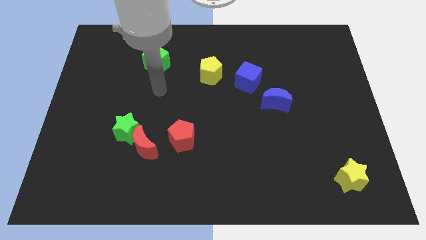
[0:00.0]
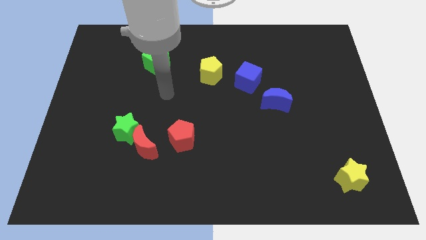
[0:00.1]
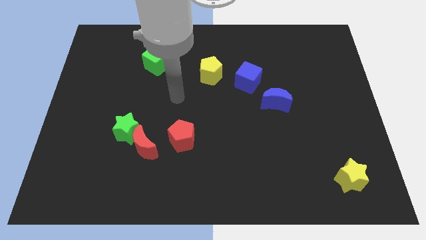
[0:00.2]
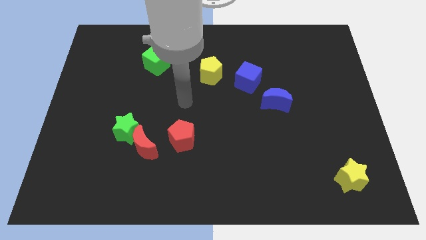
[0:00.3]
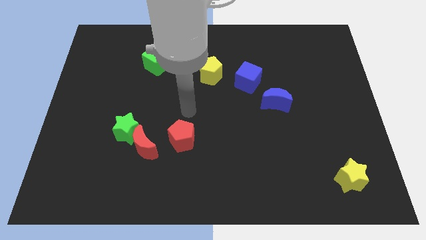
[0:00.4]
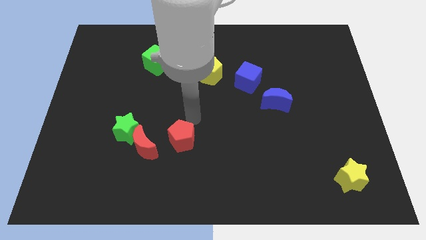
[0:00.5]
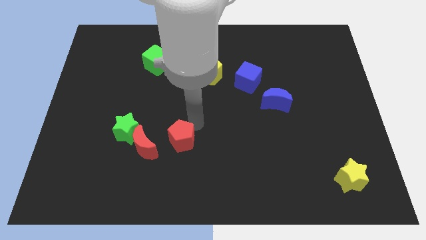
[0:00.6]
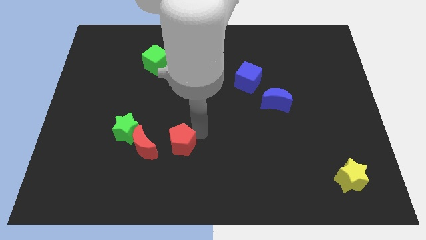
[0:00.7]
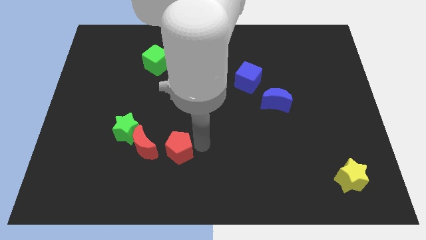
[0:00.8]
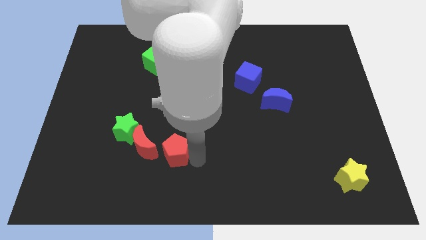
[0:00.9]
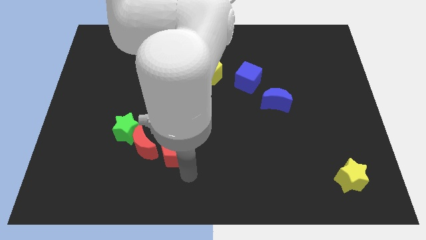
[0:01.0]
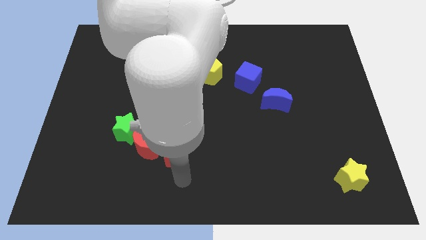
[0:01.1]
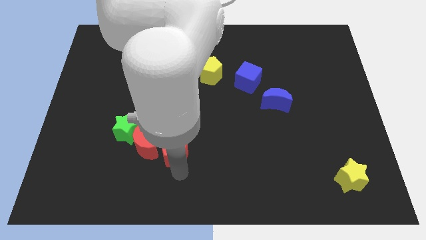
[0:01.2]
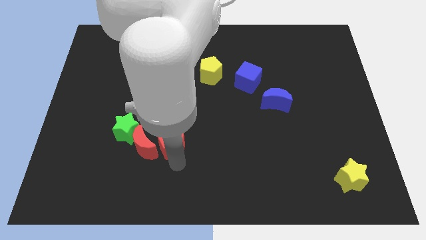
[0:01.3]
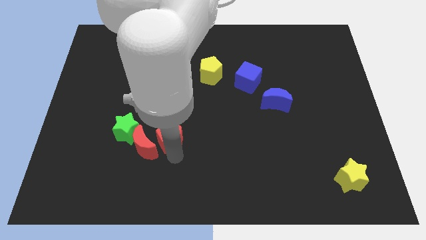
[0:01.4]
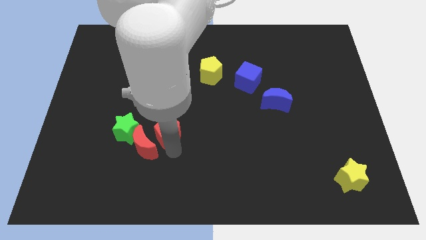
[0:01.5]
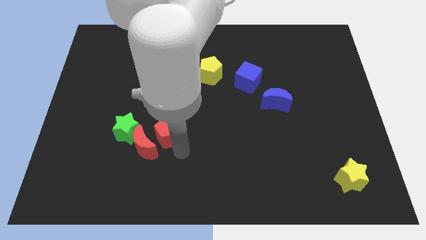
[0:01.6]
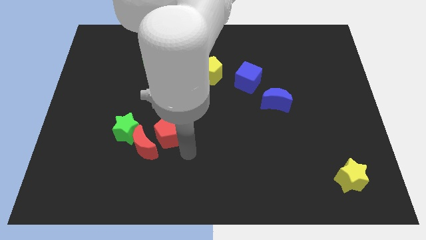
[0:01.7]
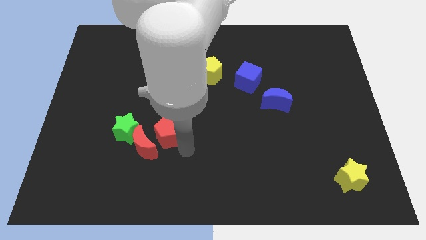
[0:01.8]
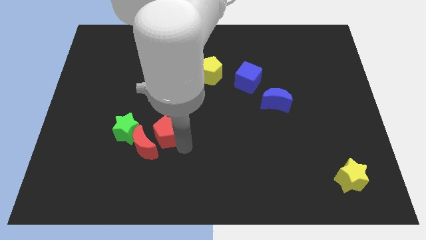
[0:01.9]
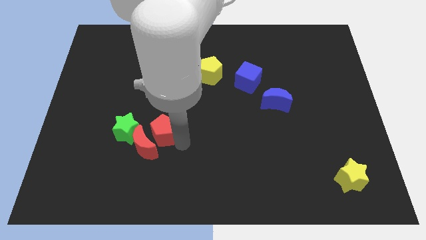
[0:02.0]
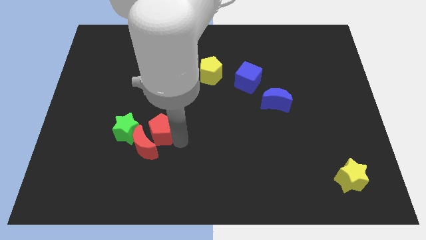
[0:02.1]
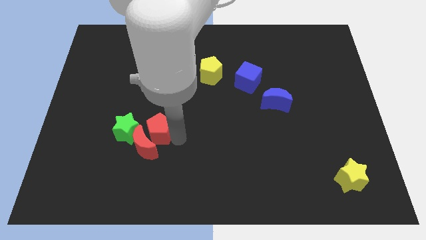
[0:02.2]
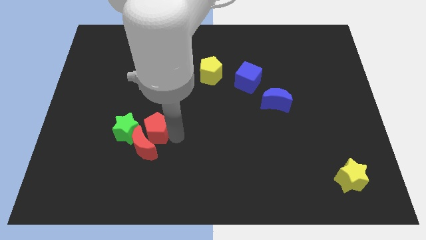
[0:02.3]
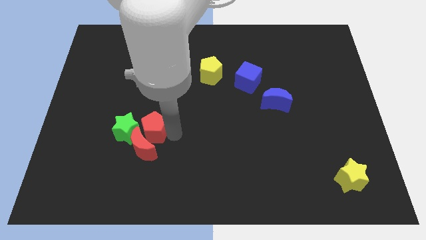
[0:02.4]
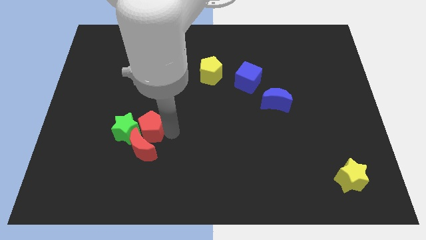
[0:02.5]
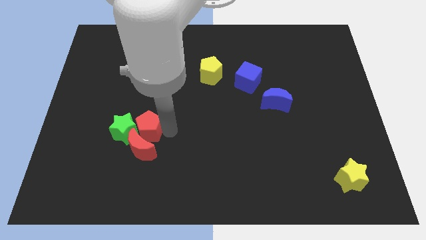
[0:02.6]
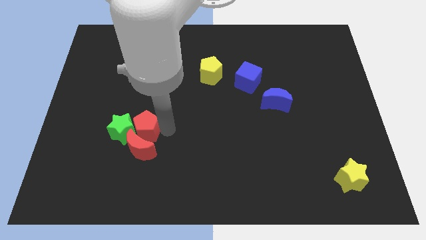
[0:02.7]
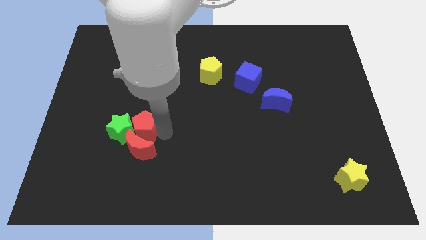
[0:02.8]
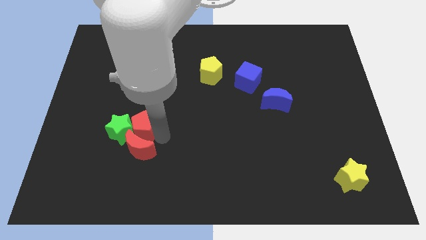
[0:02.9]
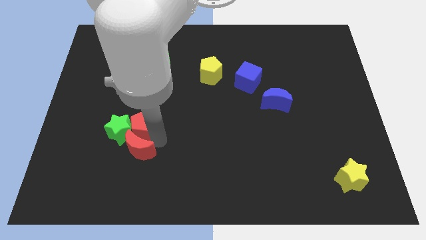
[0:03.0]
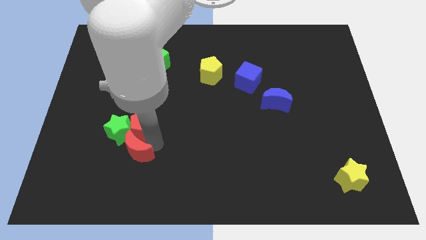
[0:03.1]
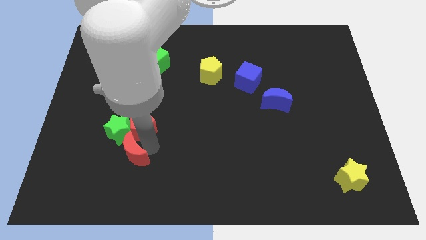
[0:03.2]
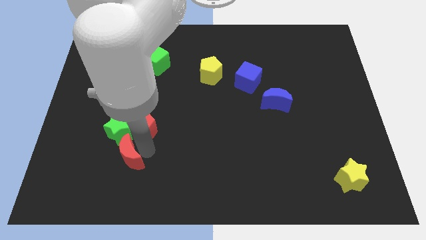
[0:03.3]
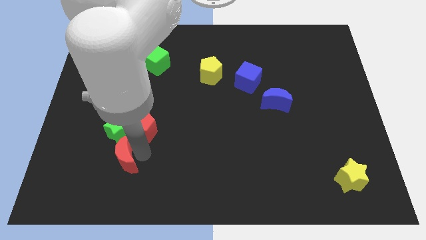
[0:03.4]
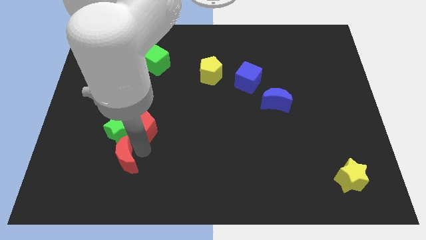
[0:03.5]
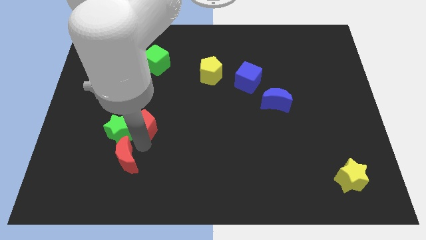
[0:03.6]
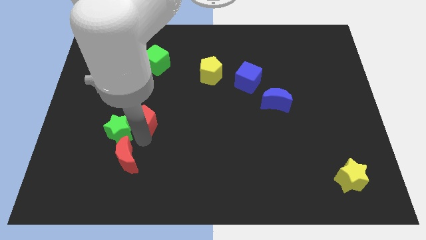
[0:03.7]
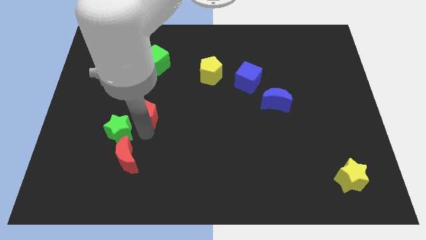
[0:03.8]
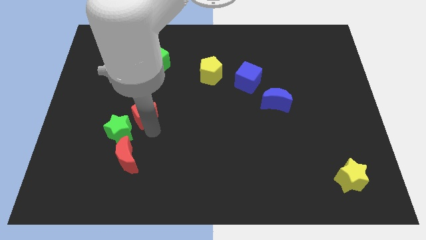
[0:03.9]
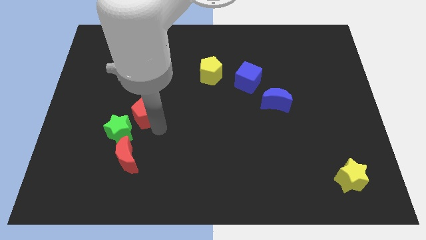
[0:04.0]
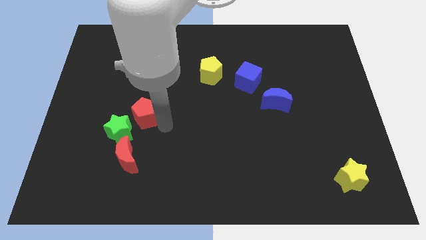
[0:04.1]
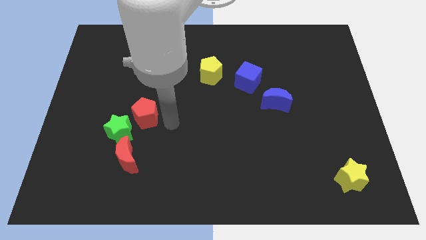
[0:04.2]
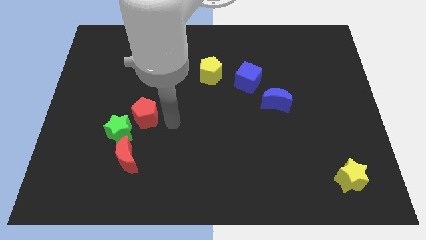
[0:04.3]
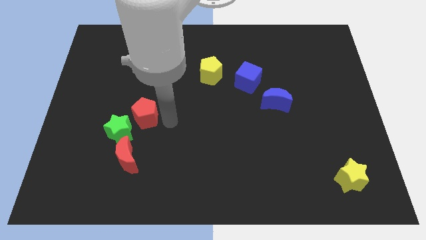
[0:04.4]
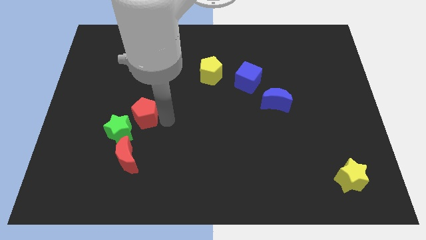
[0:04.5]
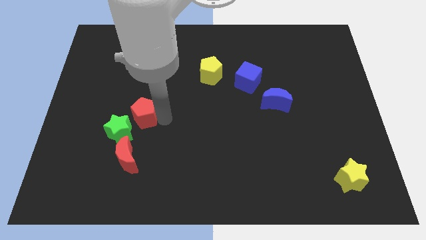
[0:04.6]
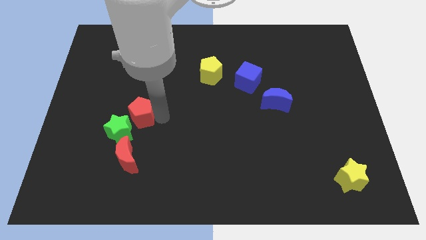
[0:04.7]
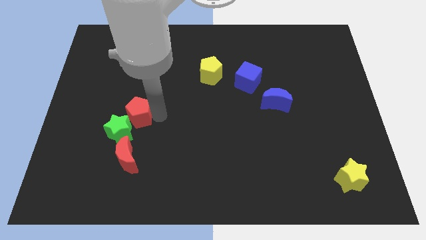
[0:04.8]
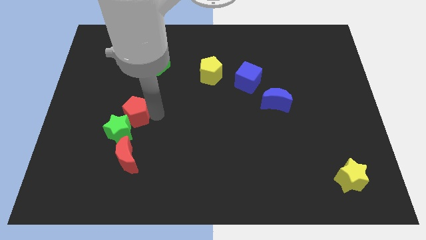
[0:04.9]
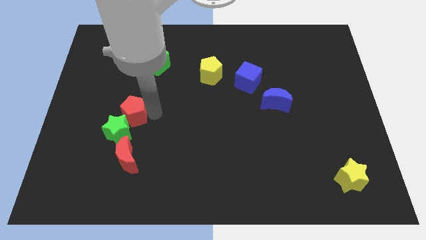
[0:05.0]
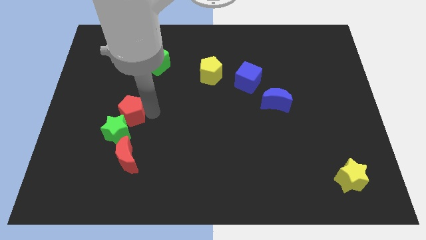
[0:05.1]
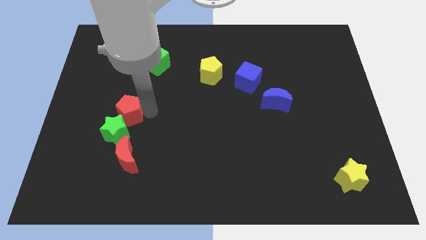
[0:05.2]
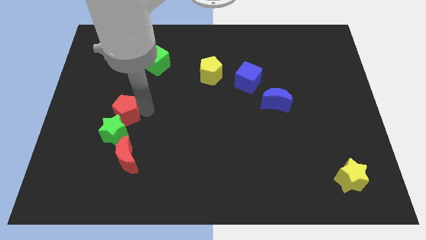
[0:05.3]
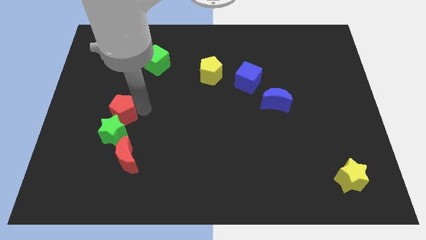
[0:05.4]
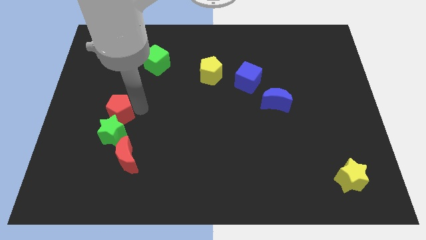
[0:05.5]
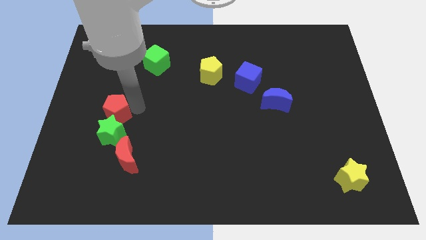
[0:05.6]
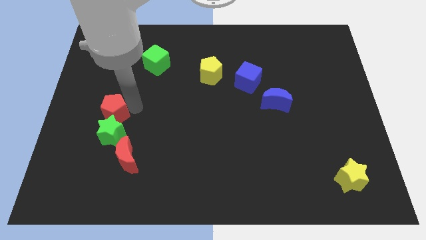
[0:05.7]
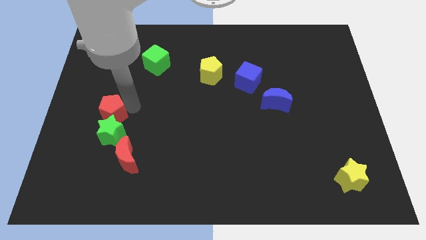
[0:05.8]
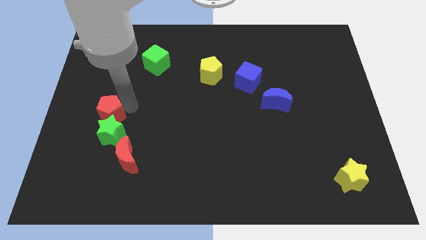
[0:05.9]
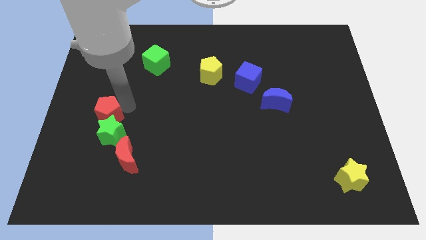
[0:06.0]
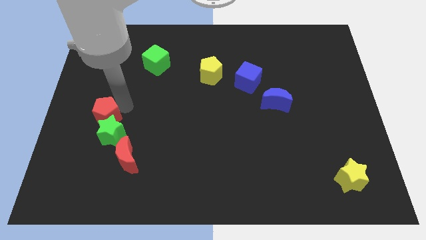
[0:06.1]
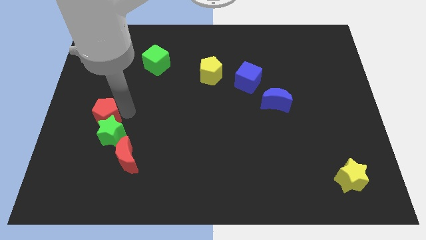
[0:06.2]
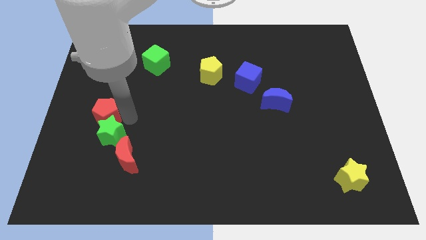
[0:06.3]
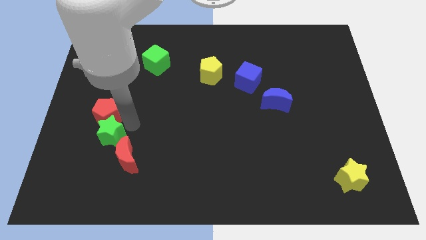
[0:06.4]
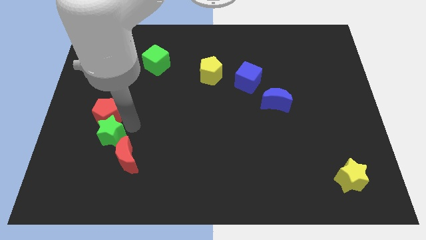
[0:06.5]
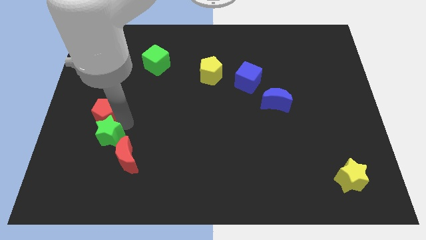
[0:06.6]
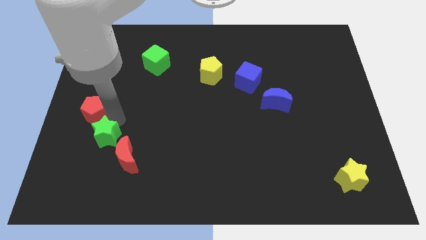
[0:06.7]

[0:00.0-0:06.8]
slide the red pentagon to the left side of the board

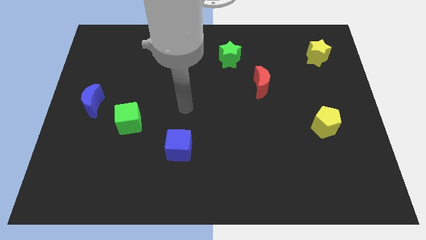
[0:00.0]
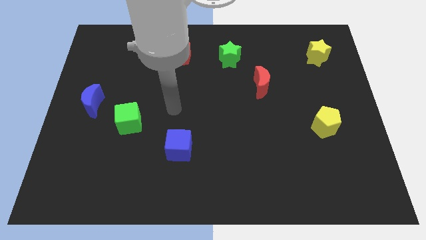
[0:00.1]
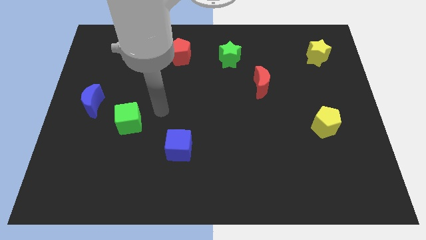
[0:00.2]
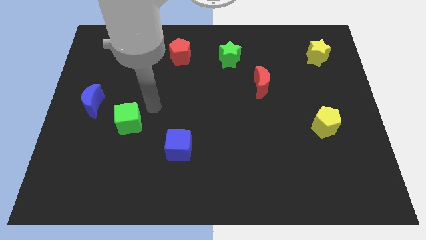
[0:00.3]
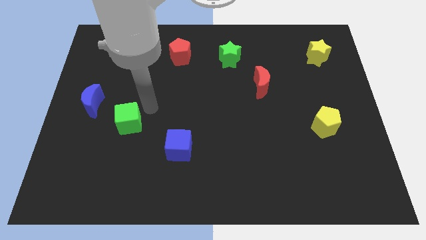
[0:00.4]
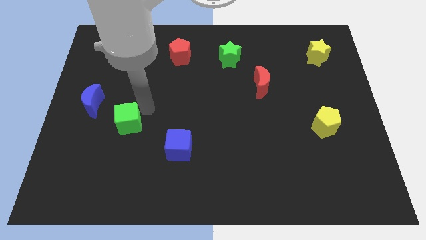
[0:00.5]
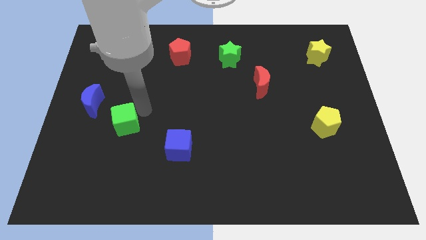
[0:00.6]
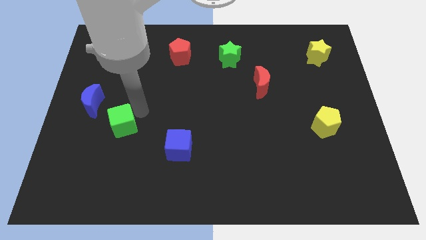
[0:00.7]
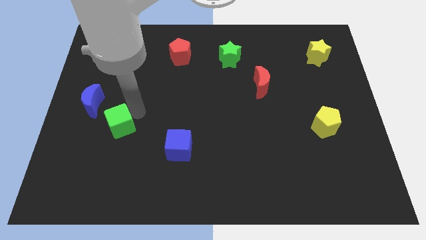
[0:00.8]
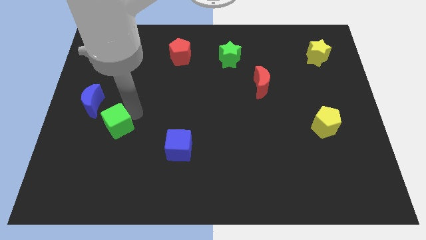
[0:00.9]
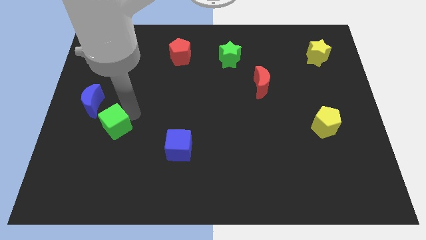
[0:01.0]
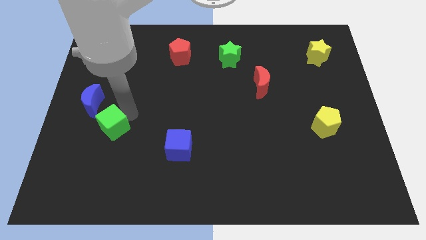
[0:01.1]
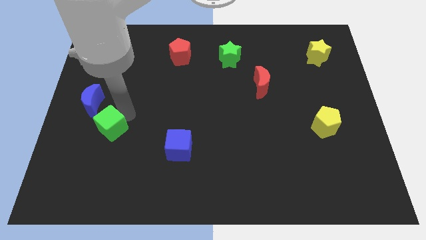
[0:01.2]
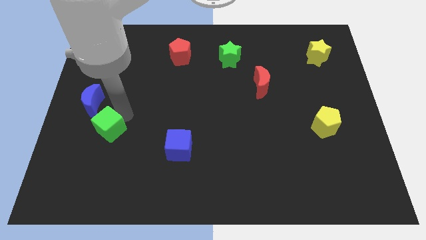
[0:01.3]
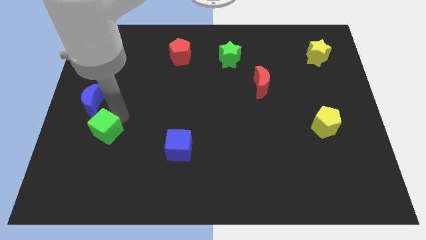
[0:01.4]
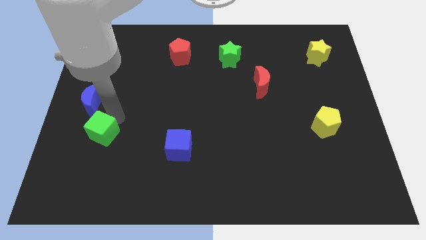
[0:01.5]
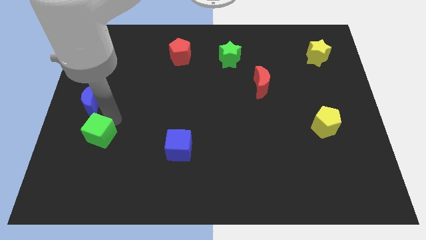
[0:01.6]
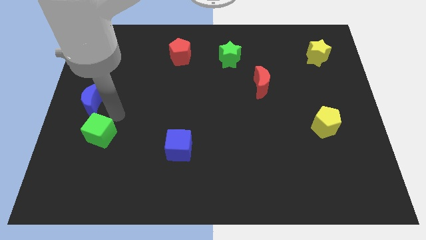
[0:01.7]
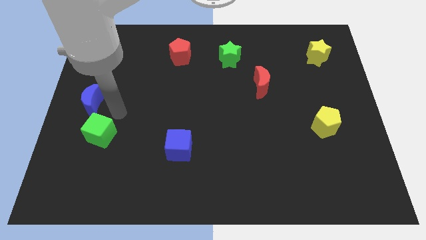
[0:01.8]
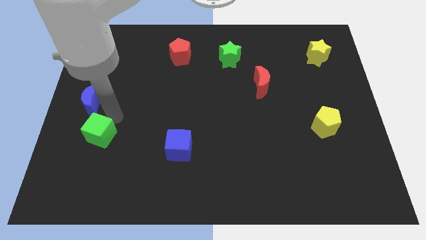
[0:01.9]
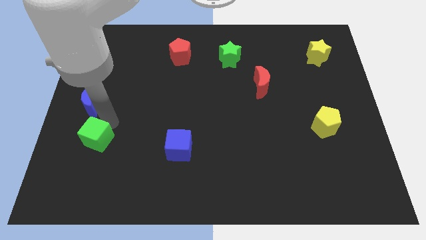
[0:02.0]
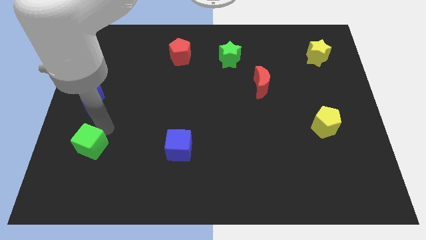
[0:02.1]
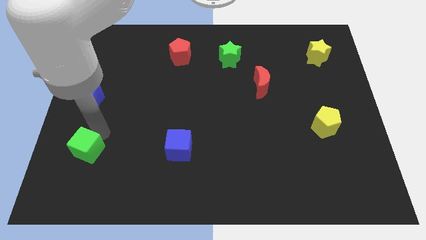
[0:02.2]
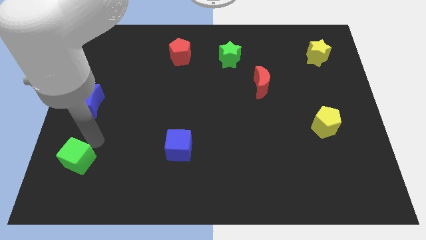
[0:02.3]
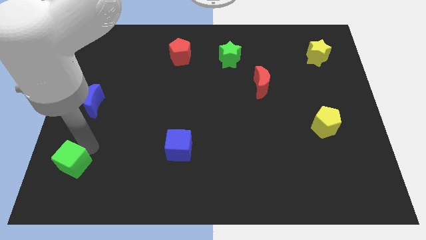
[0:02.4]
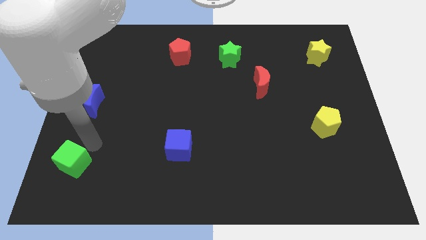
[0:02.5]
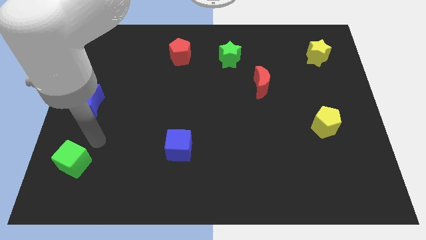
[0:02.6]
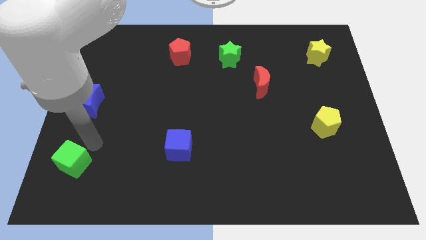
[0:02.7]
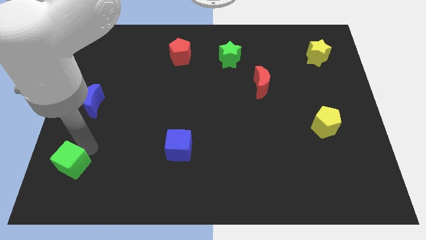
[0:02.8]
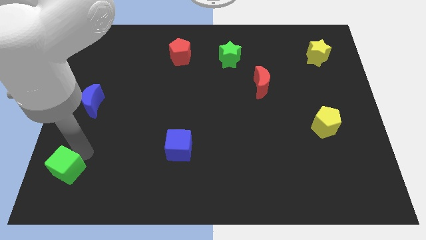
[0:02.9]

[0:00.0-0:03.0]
slide the green cube to the bottom left of the board
